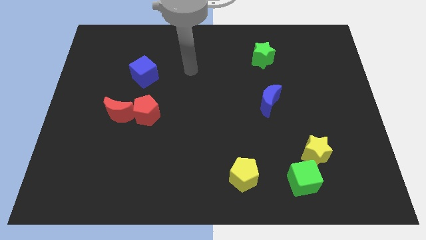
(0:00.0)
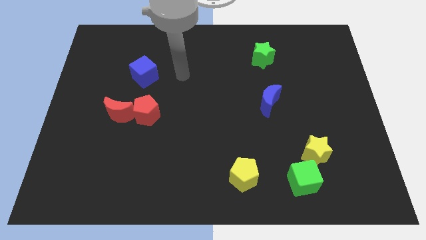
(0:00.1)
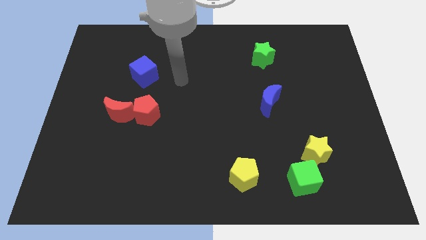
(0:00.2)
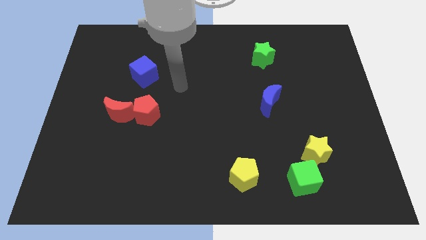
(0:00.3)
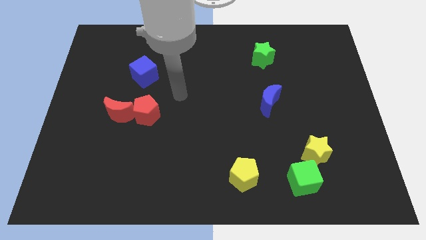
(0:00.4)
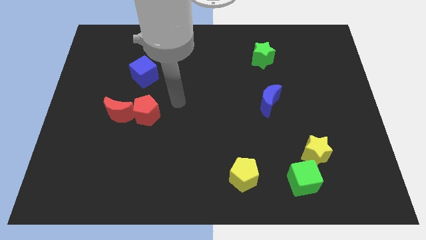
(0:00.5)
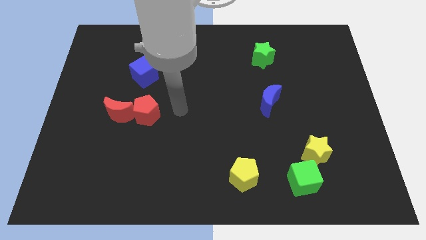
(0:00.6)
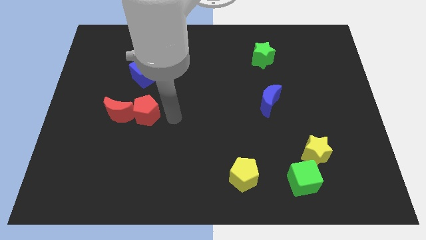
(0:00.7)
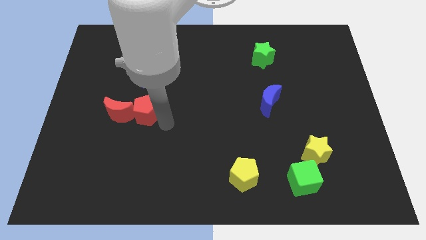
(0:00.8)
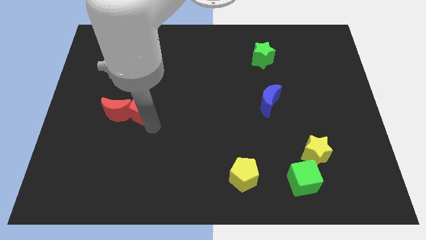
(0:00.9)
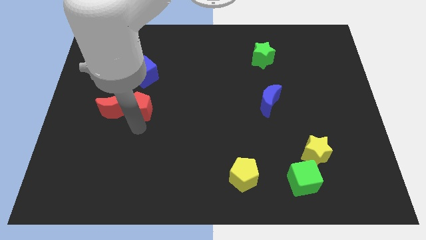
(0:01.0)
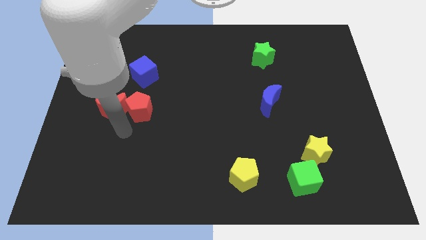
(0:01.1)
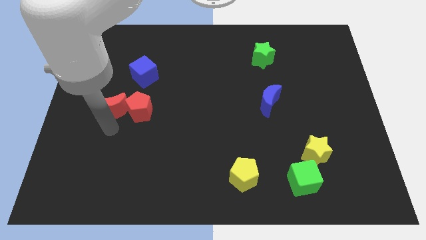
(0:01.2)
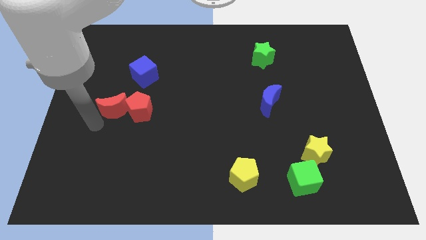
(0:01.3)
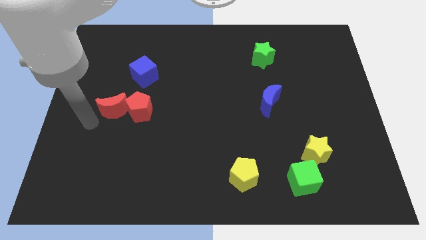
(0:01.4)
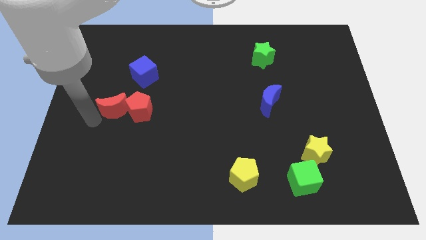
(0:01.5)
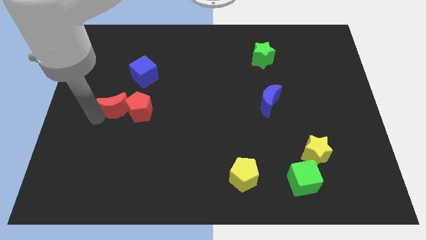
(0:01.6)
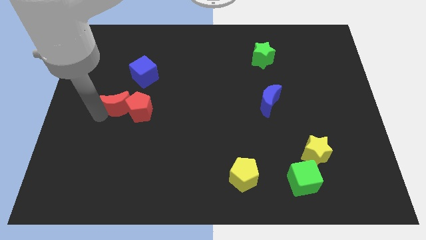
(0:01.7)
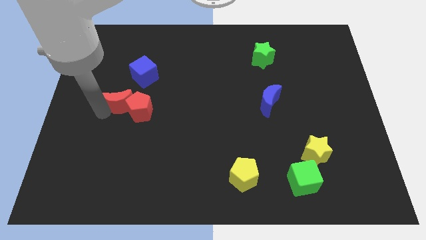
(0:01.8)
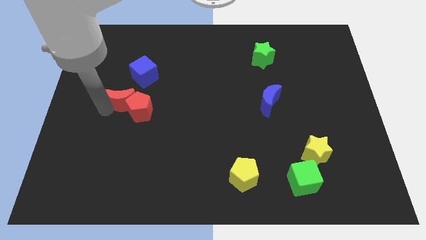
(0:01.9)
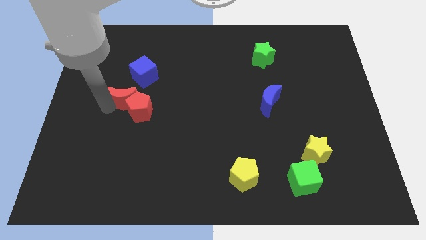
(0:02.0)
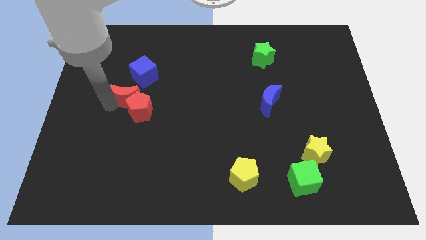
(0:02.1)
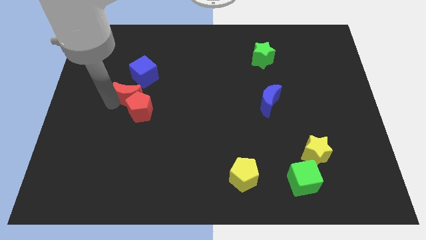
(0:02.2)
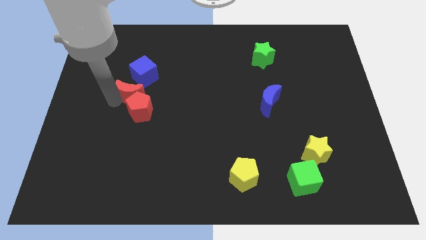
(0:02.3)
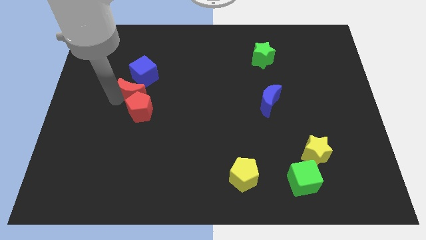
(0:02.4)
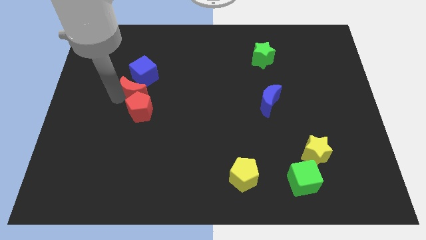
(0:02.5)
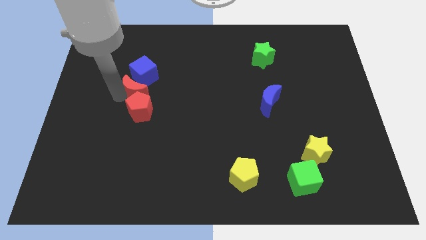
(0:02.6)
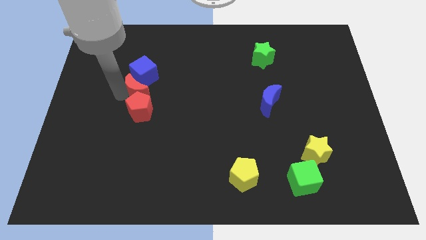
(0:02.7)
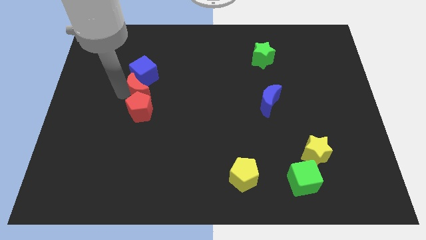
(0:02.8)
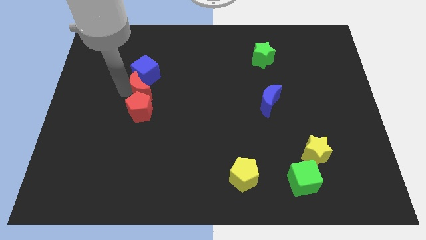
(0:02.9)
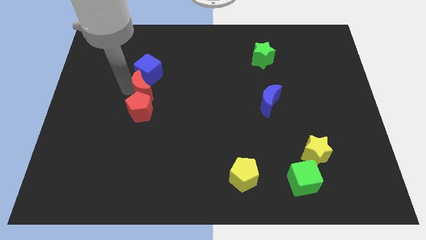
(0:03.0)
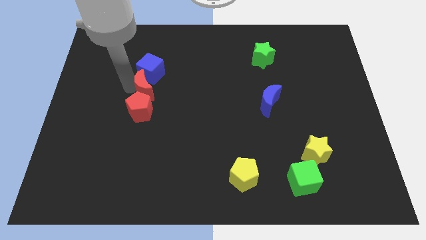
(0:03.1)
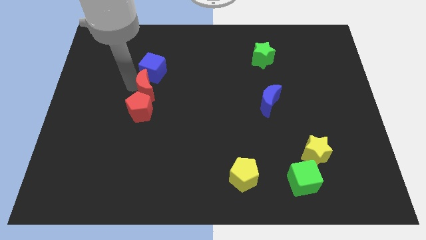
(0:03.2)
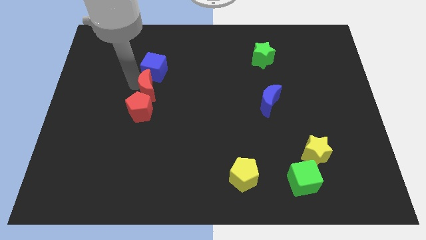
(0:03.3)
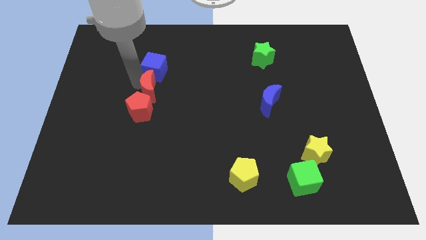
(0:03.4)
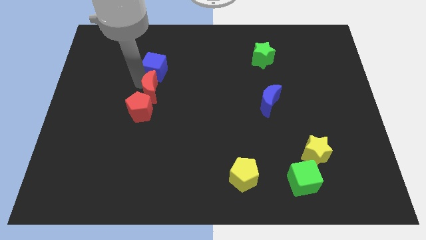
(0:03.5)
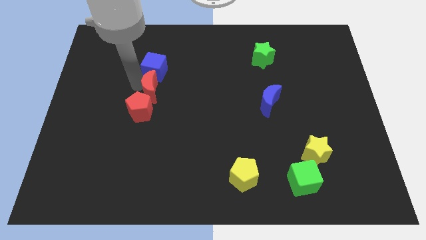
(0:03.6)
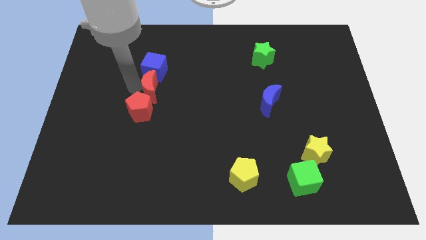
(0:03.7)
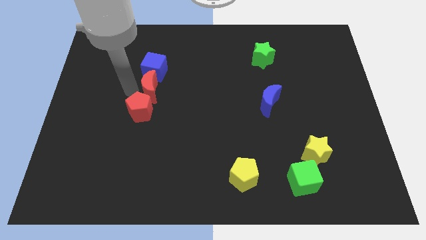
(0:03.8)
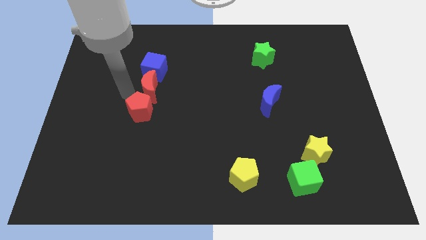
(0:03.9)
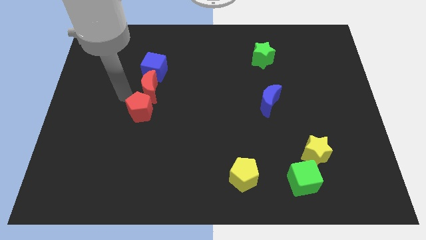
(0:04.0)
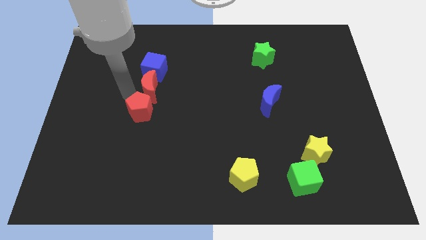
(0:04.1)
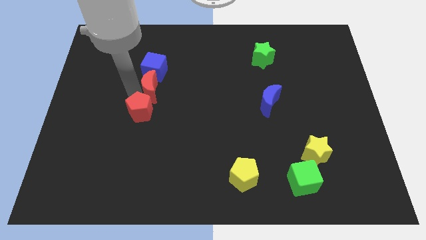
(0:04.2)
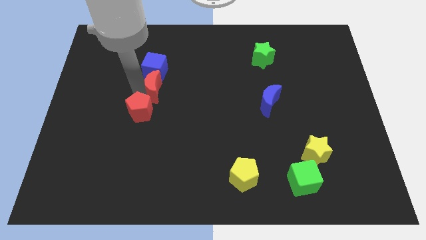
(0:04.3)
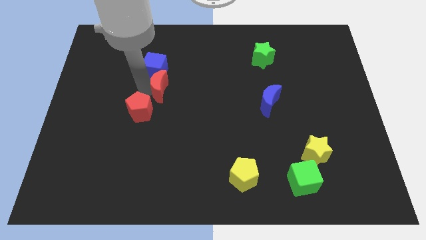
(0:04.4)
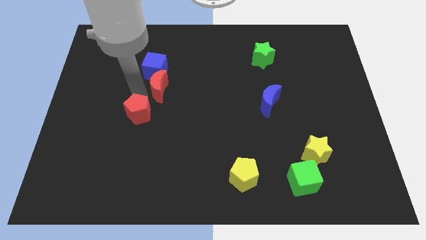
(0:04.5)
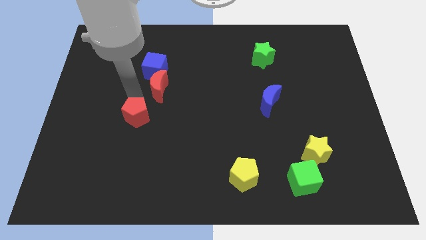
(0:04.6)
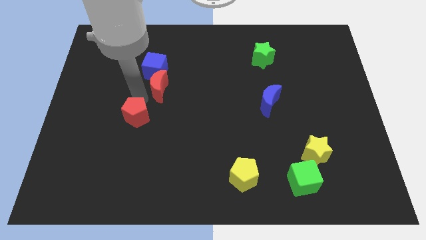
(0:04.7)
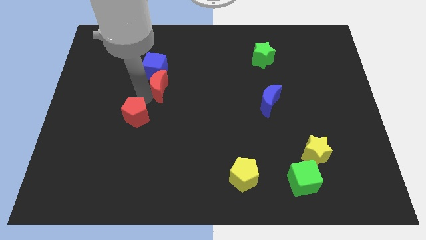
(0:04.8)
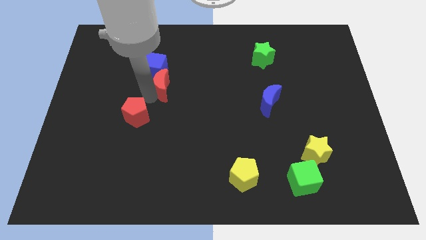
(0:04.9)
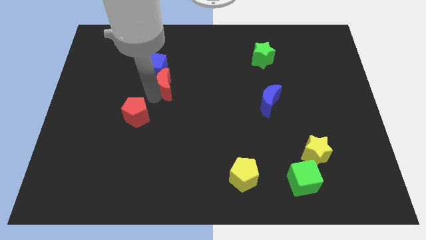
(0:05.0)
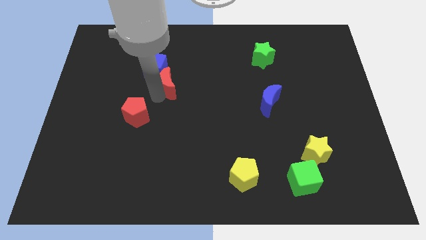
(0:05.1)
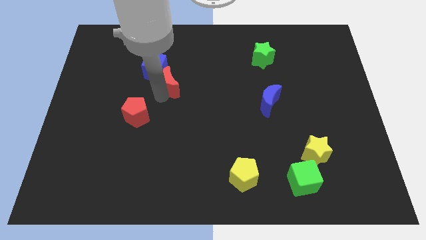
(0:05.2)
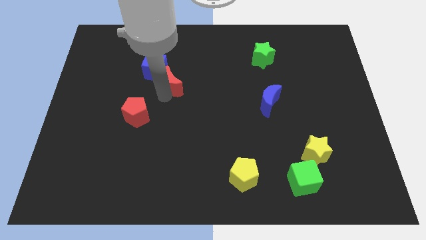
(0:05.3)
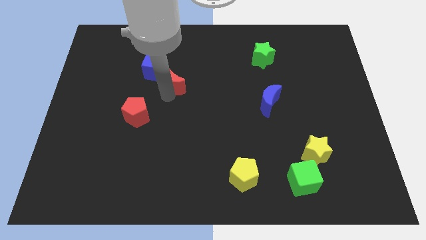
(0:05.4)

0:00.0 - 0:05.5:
push the red moon to the right of the blue cube

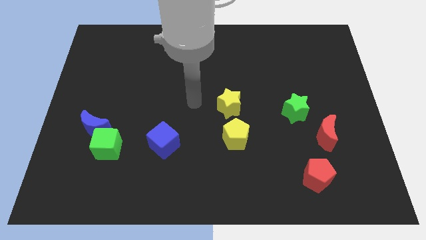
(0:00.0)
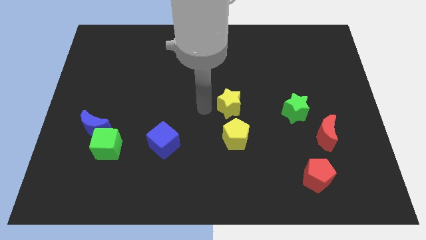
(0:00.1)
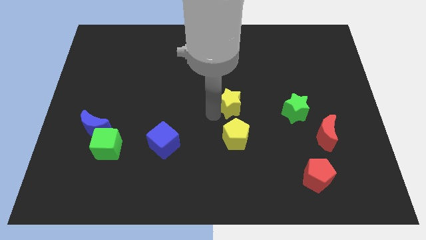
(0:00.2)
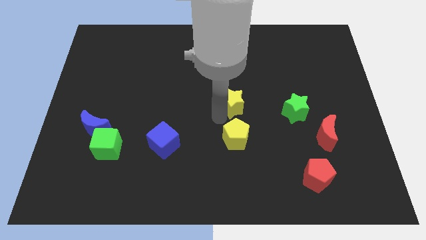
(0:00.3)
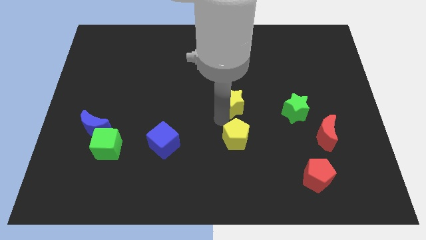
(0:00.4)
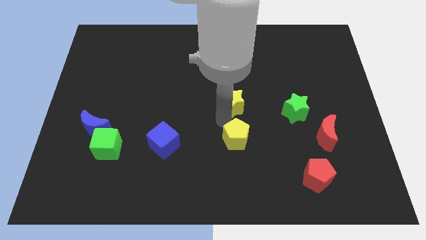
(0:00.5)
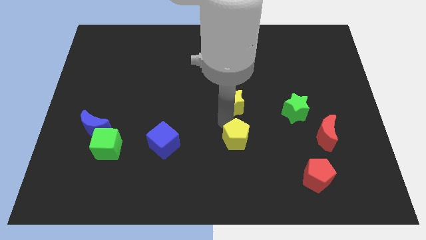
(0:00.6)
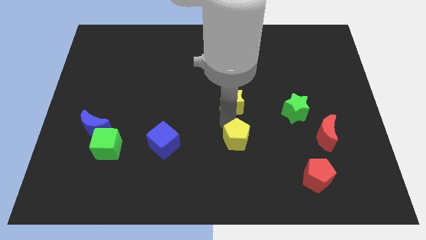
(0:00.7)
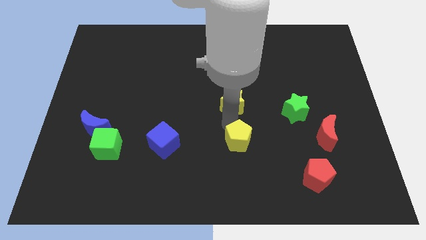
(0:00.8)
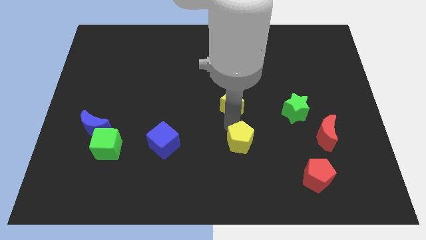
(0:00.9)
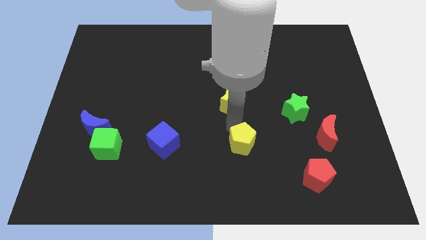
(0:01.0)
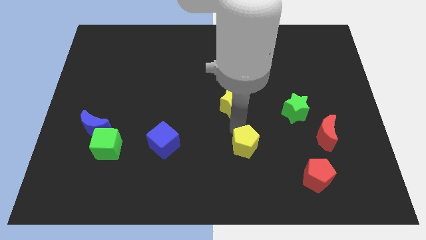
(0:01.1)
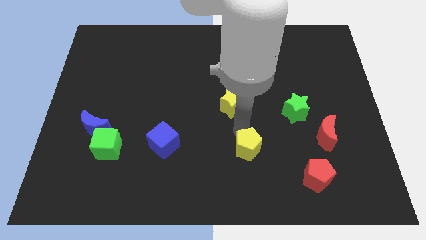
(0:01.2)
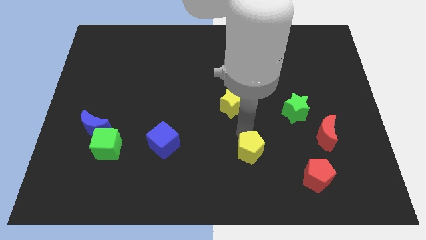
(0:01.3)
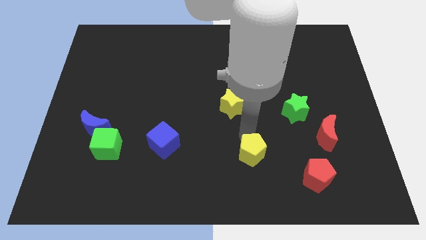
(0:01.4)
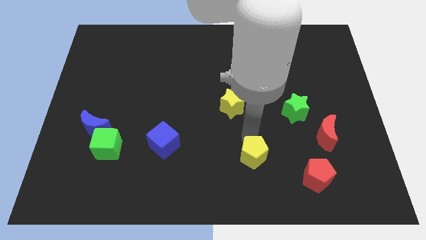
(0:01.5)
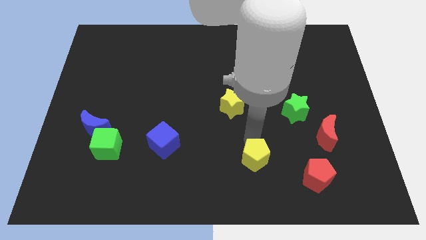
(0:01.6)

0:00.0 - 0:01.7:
put the yellow pentagon left of the red pentagon

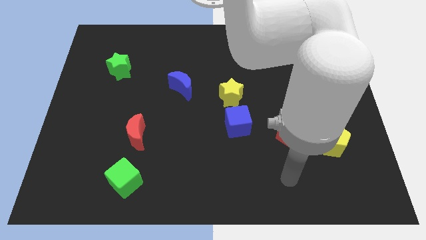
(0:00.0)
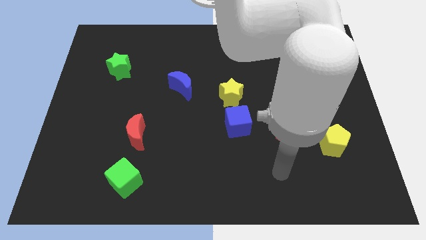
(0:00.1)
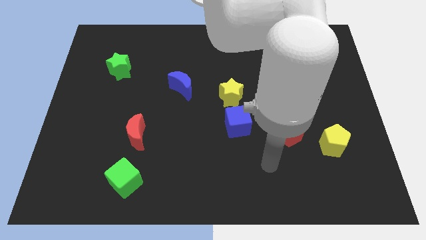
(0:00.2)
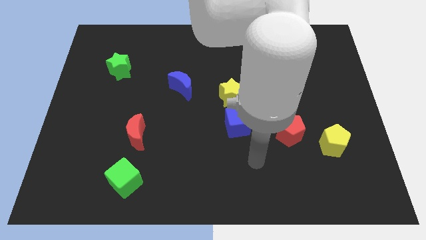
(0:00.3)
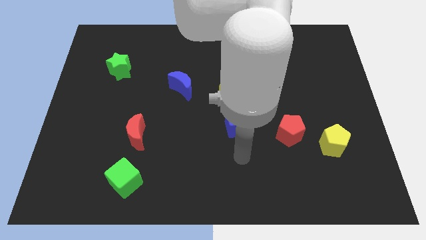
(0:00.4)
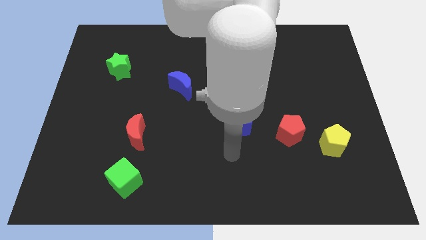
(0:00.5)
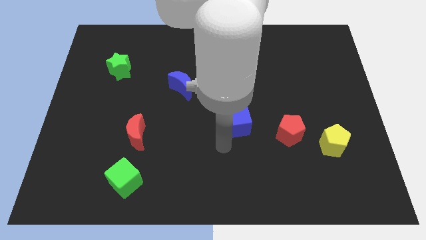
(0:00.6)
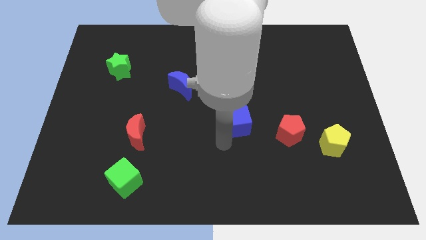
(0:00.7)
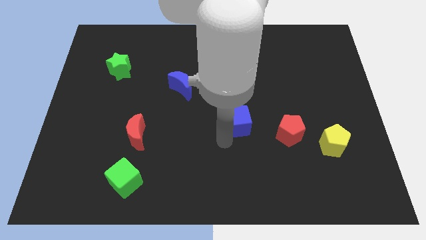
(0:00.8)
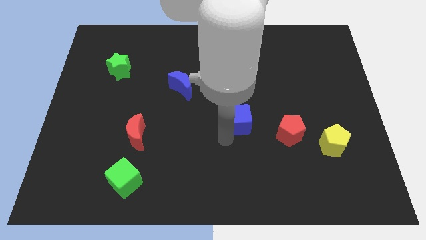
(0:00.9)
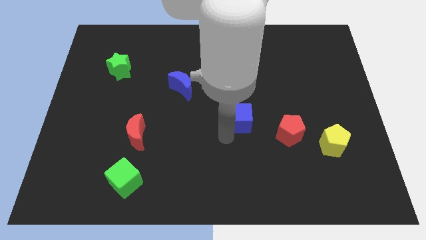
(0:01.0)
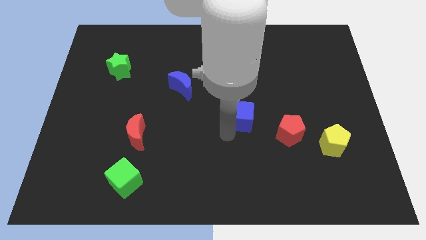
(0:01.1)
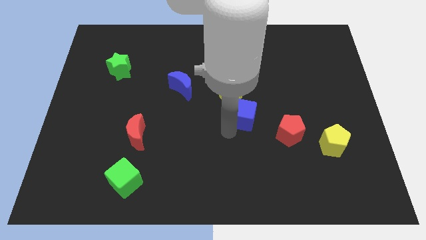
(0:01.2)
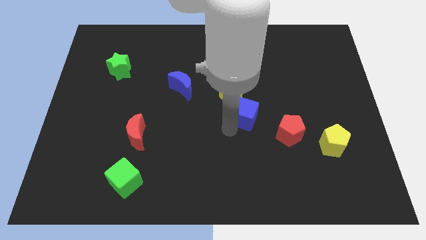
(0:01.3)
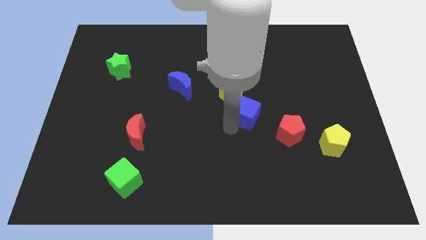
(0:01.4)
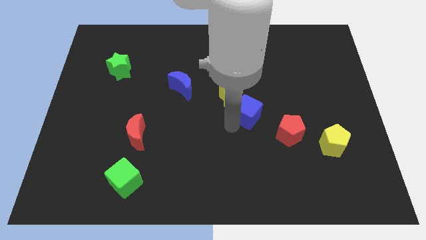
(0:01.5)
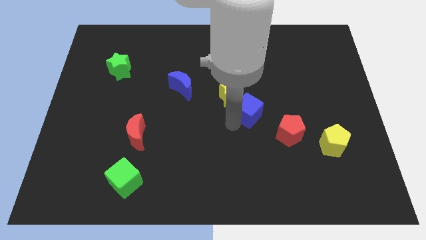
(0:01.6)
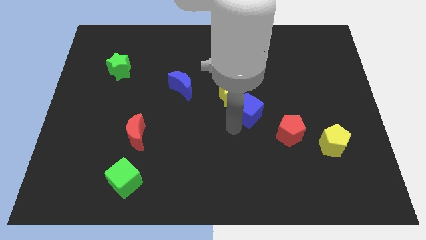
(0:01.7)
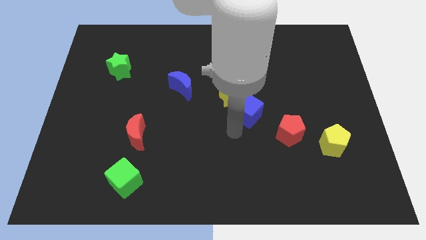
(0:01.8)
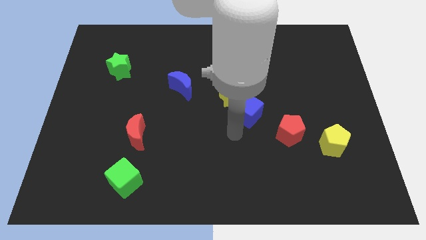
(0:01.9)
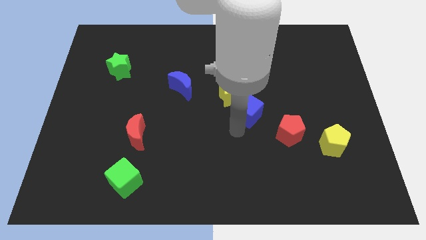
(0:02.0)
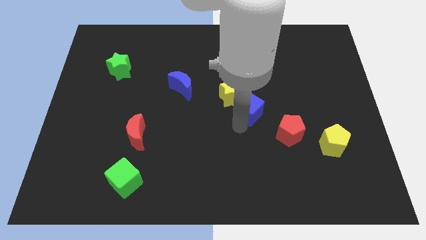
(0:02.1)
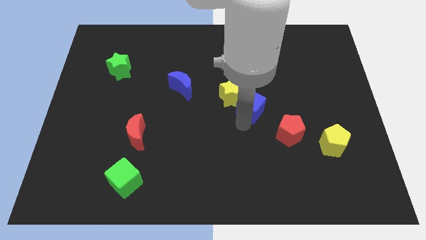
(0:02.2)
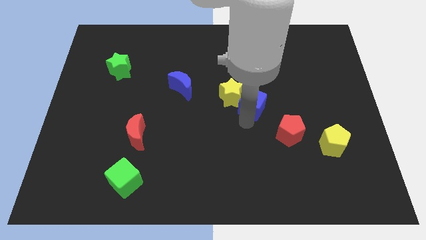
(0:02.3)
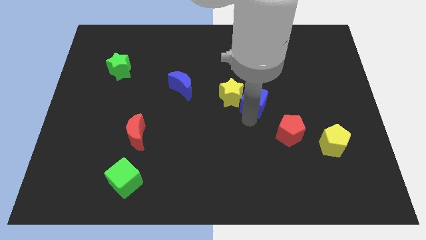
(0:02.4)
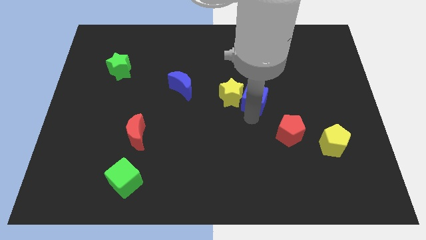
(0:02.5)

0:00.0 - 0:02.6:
put the blue cube to the top right of the yellow star
